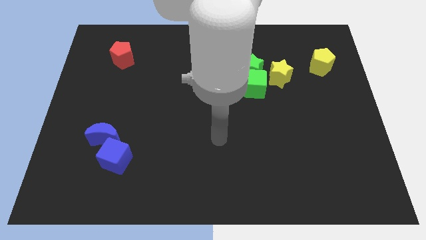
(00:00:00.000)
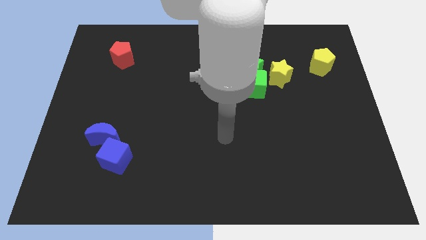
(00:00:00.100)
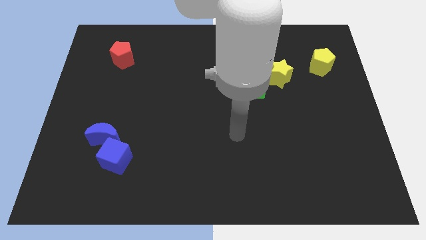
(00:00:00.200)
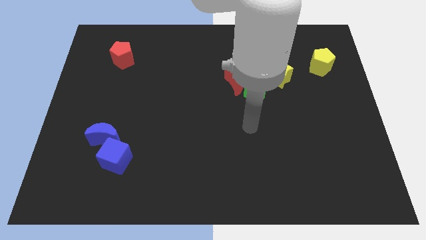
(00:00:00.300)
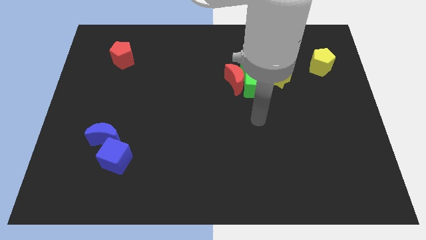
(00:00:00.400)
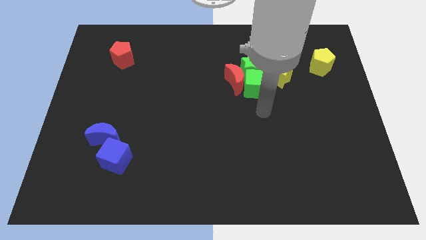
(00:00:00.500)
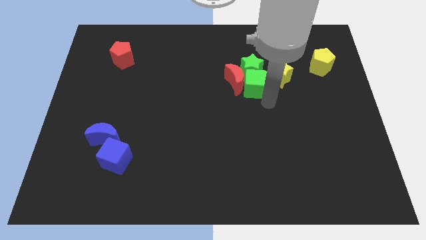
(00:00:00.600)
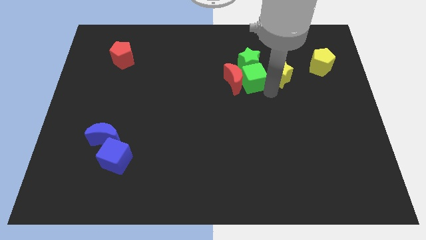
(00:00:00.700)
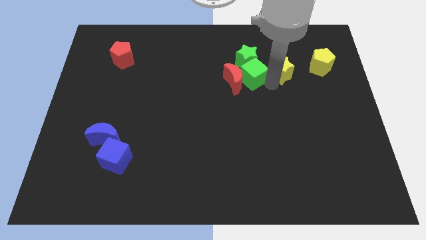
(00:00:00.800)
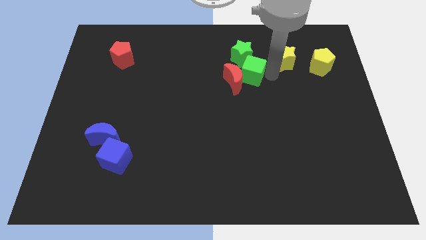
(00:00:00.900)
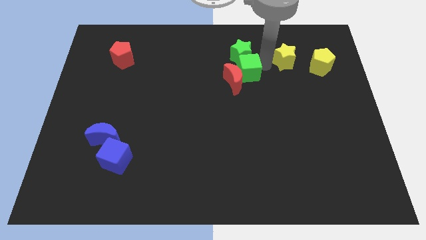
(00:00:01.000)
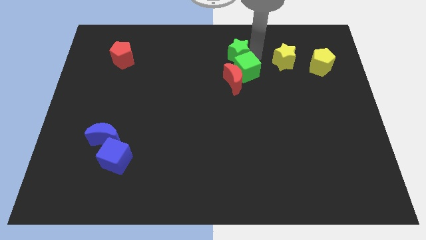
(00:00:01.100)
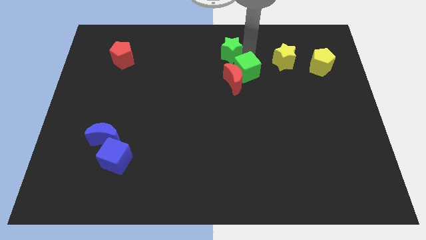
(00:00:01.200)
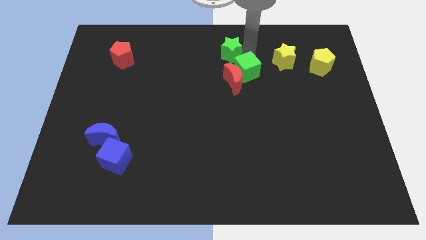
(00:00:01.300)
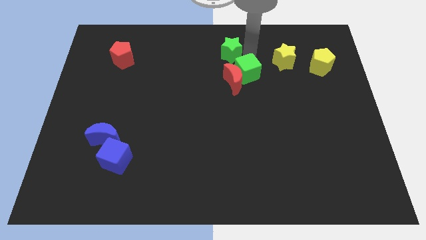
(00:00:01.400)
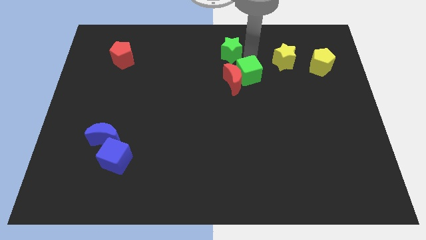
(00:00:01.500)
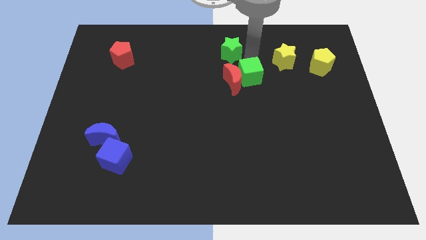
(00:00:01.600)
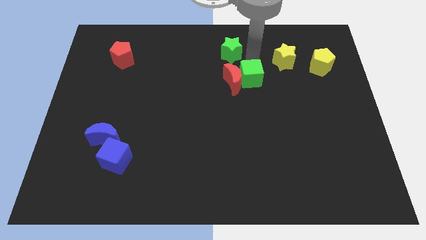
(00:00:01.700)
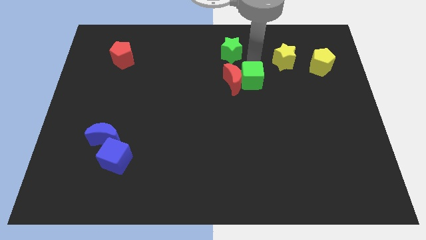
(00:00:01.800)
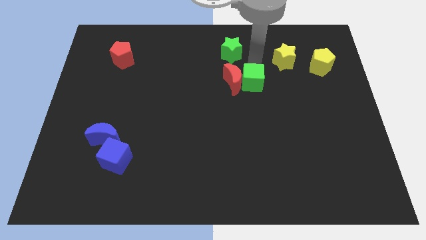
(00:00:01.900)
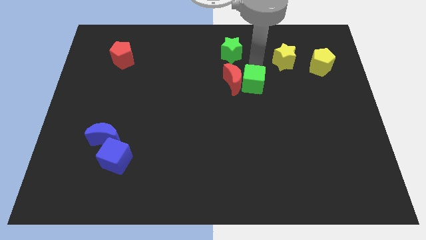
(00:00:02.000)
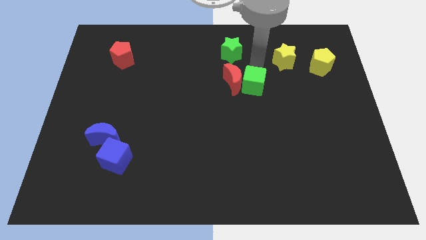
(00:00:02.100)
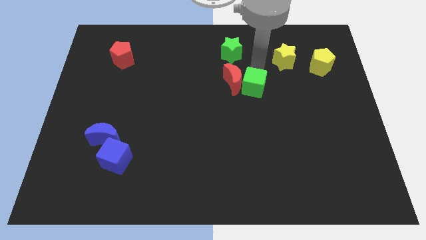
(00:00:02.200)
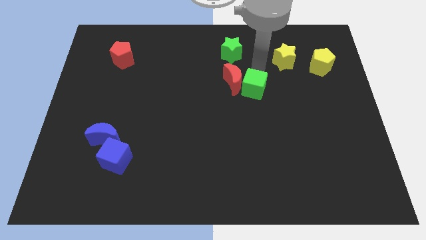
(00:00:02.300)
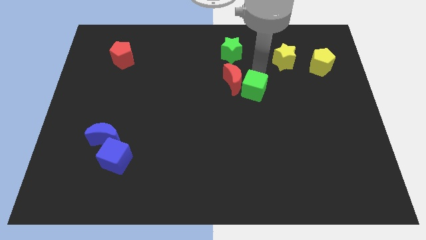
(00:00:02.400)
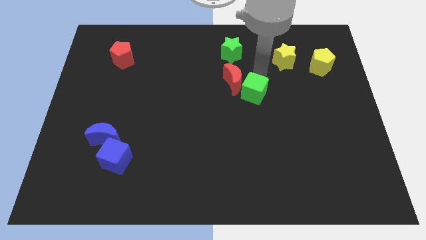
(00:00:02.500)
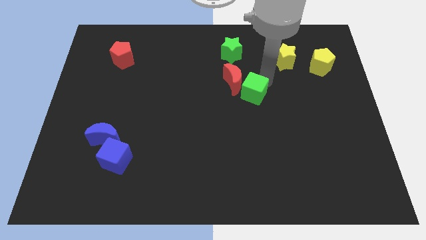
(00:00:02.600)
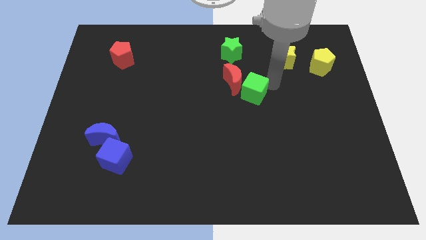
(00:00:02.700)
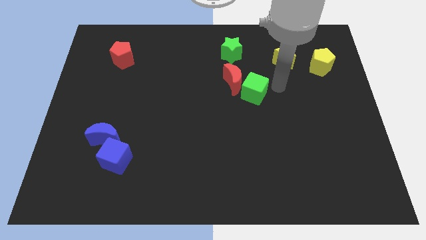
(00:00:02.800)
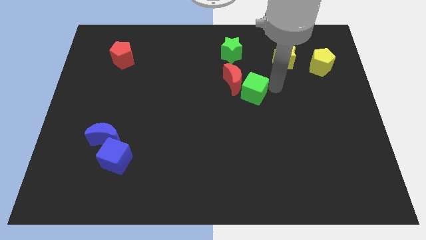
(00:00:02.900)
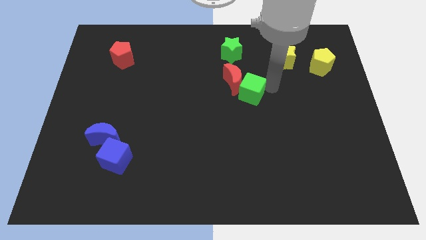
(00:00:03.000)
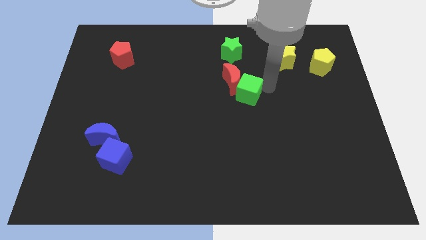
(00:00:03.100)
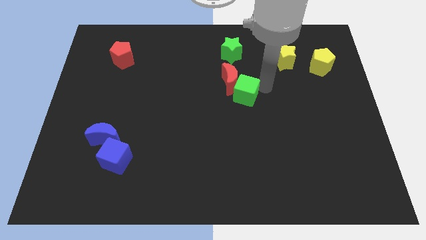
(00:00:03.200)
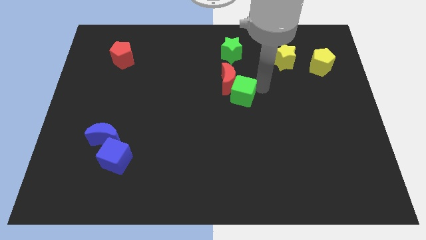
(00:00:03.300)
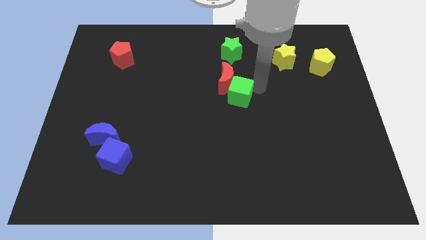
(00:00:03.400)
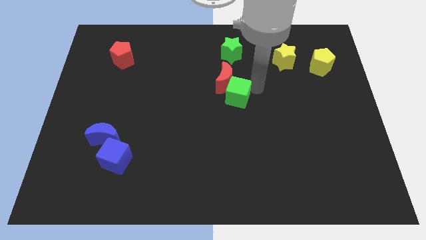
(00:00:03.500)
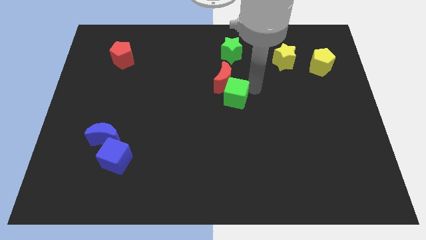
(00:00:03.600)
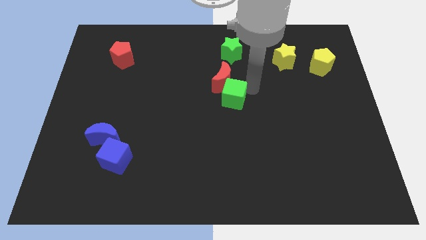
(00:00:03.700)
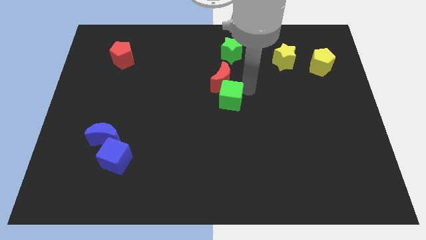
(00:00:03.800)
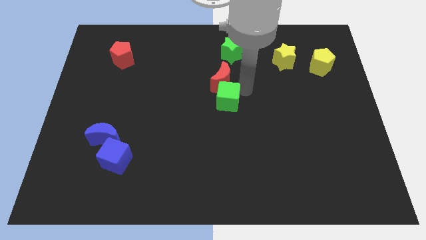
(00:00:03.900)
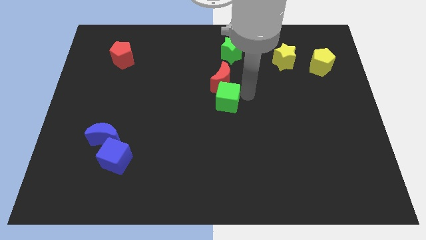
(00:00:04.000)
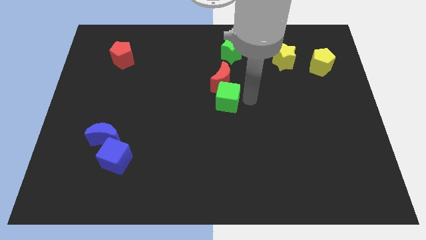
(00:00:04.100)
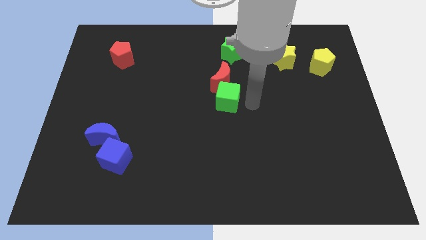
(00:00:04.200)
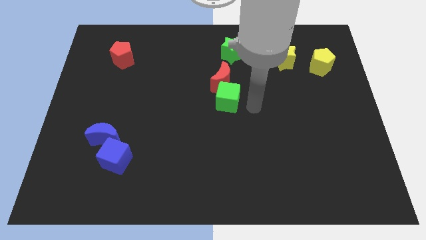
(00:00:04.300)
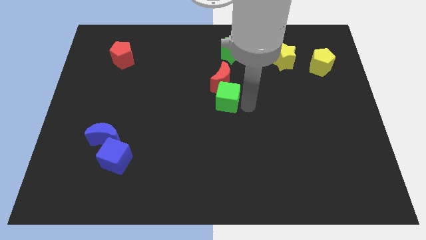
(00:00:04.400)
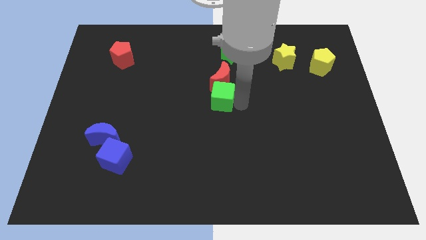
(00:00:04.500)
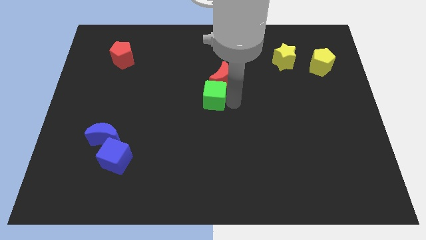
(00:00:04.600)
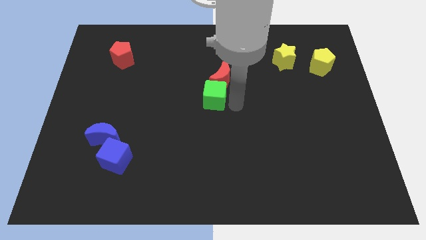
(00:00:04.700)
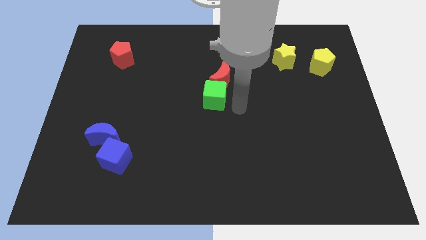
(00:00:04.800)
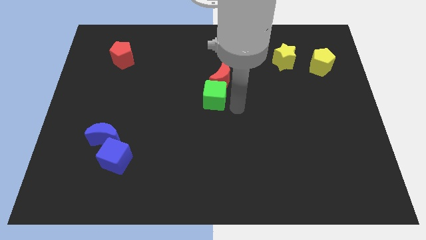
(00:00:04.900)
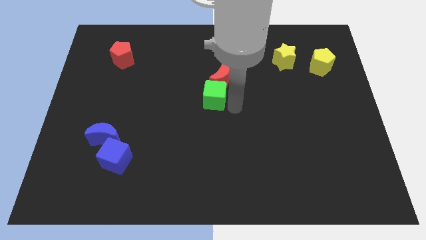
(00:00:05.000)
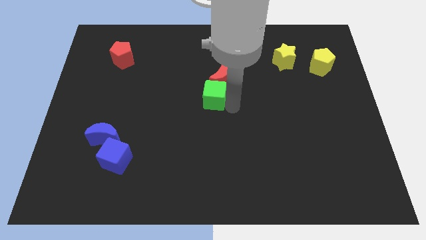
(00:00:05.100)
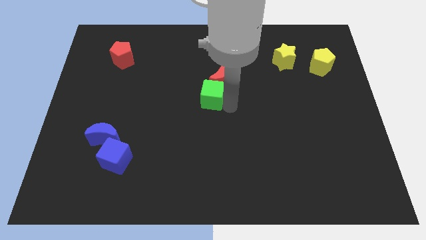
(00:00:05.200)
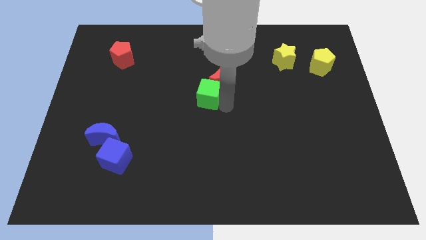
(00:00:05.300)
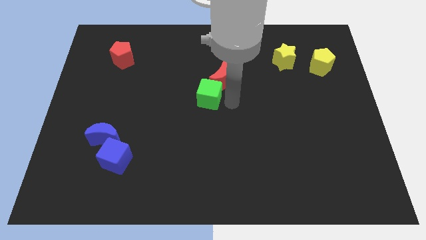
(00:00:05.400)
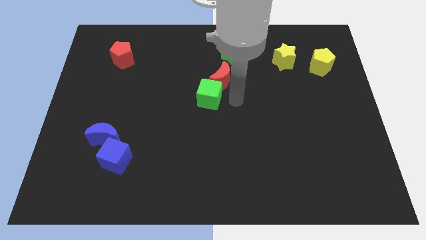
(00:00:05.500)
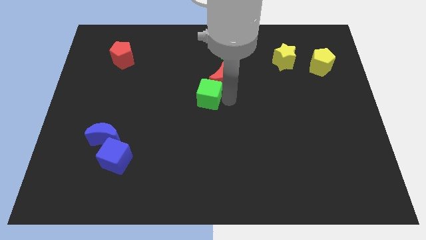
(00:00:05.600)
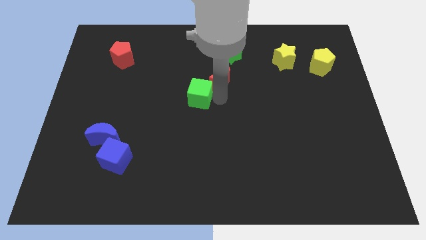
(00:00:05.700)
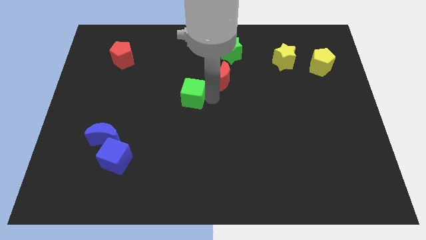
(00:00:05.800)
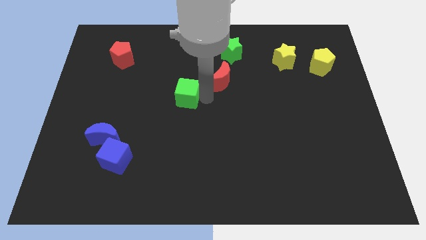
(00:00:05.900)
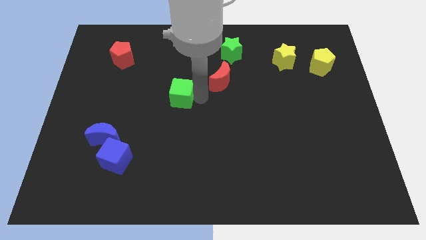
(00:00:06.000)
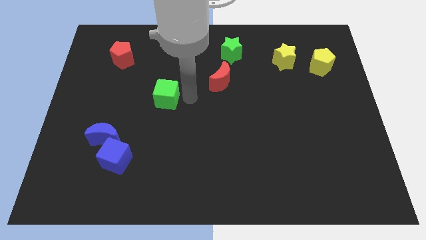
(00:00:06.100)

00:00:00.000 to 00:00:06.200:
move the green cube left

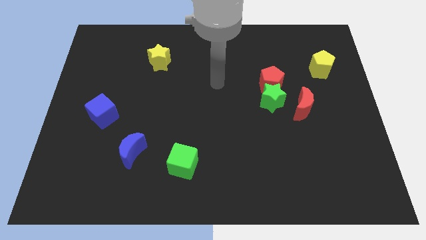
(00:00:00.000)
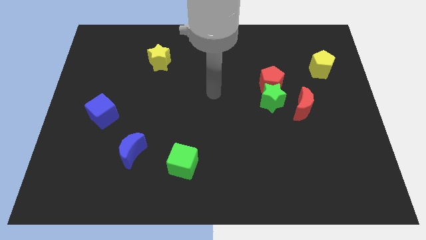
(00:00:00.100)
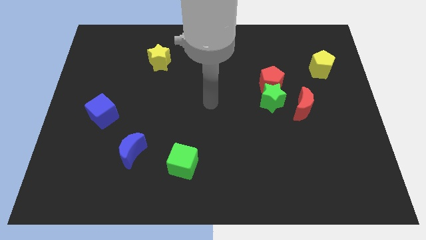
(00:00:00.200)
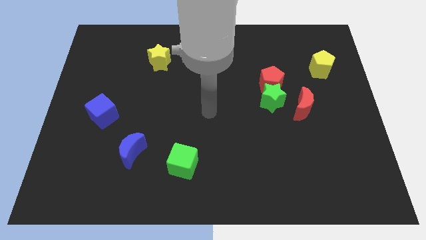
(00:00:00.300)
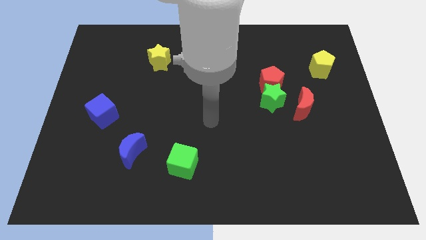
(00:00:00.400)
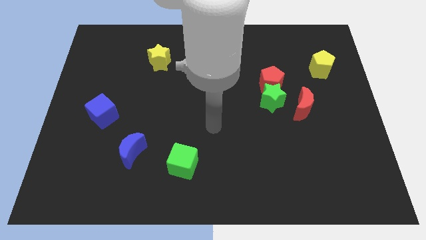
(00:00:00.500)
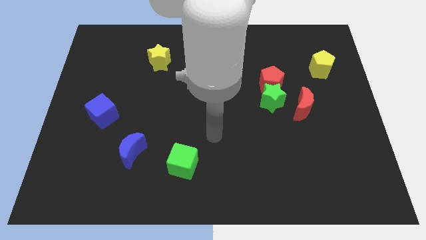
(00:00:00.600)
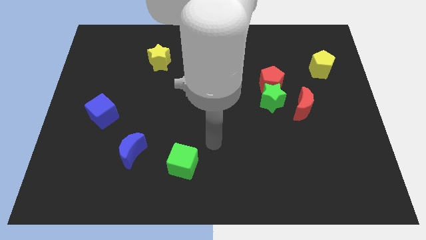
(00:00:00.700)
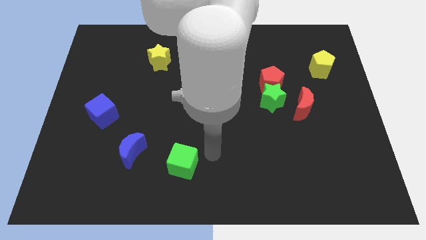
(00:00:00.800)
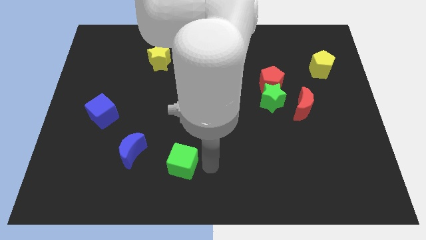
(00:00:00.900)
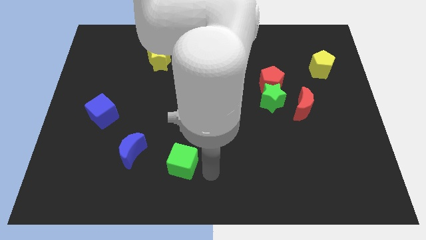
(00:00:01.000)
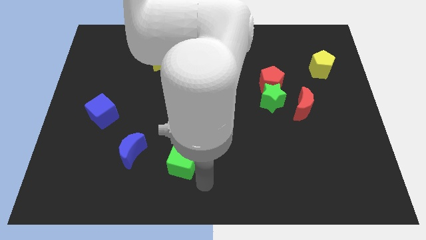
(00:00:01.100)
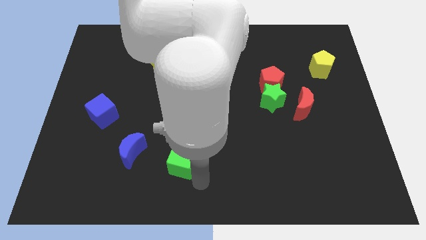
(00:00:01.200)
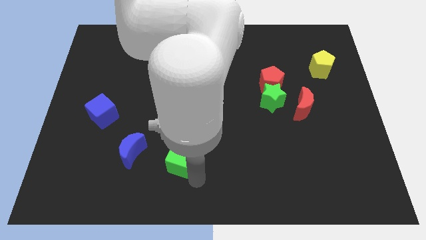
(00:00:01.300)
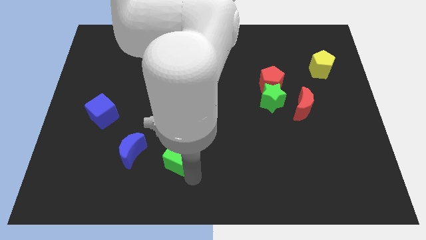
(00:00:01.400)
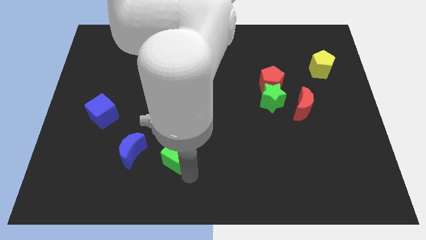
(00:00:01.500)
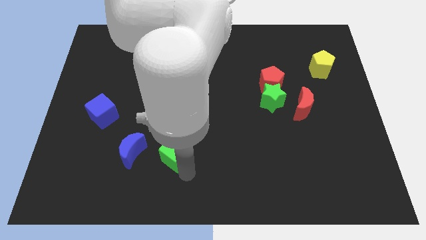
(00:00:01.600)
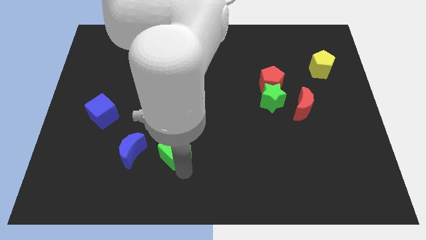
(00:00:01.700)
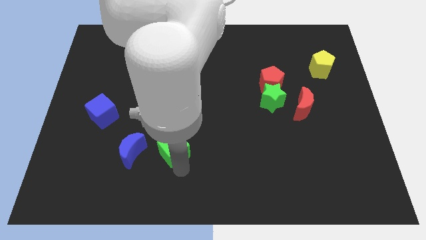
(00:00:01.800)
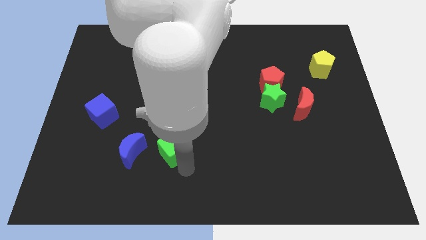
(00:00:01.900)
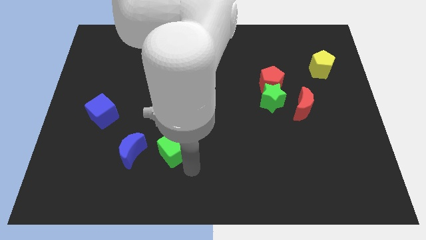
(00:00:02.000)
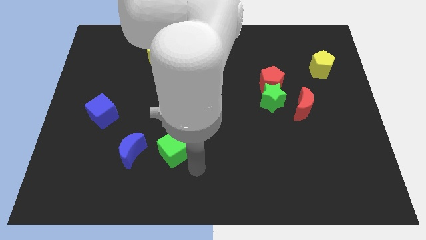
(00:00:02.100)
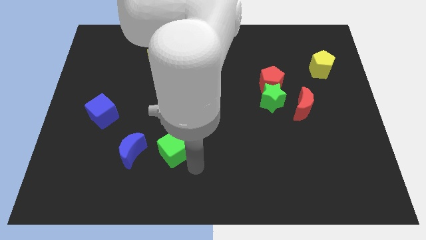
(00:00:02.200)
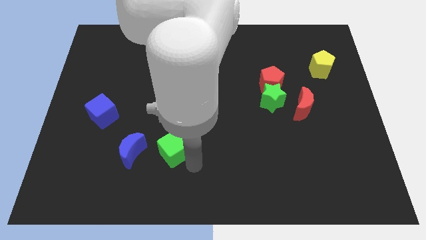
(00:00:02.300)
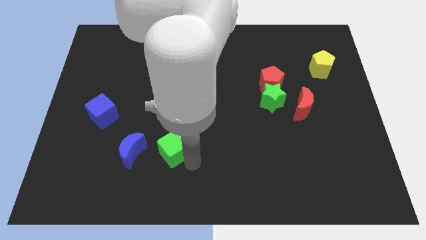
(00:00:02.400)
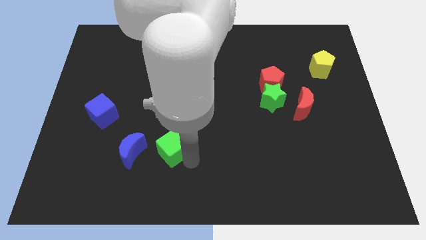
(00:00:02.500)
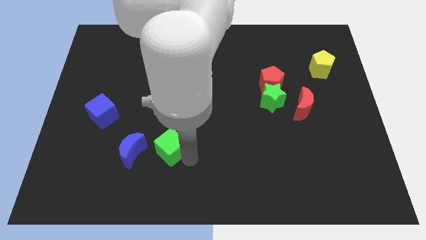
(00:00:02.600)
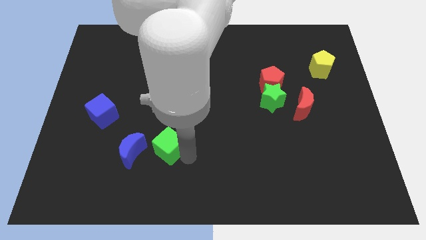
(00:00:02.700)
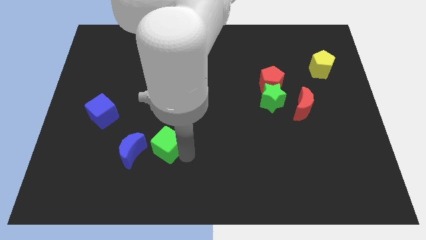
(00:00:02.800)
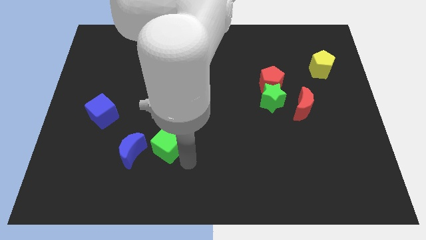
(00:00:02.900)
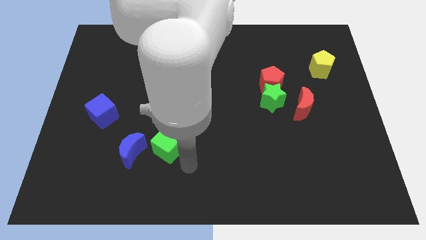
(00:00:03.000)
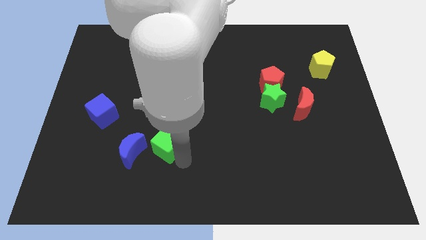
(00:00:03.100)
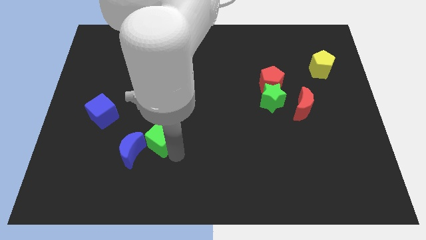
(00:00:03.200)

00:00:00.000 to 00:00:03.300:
slightly push the green cube up and to the left
